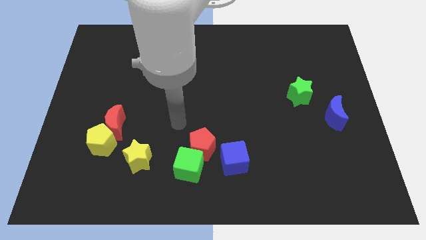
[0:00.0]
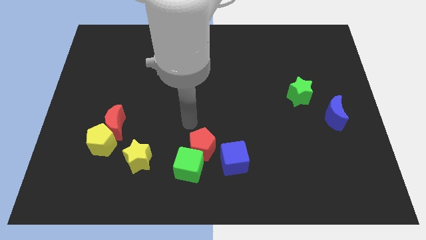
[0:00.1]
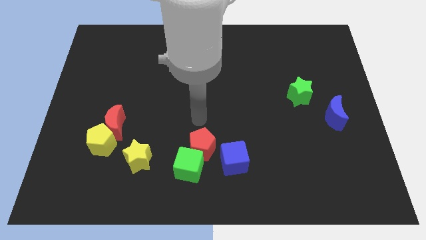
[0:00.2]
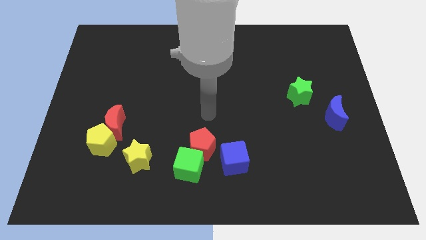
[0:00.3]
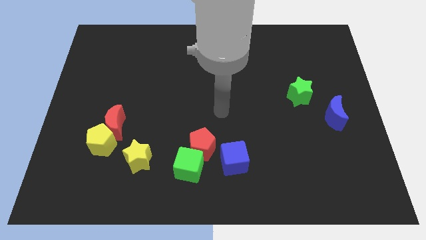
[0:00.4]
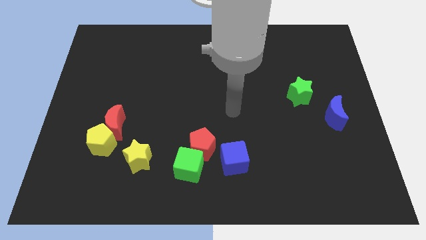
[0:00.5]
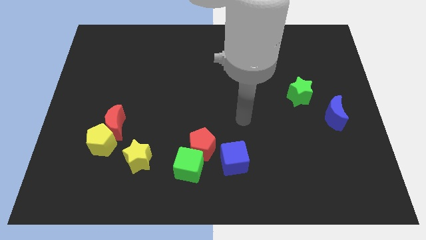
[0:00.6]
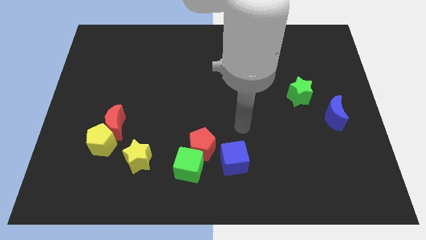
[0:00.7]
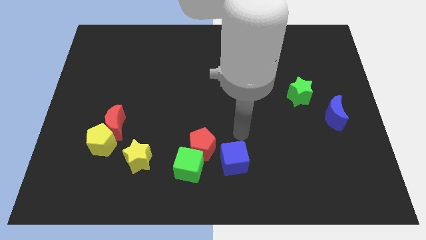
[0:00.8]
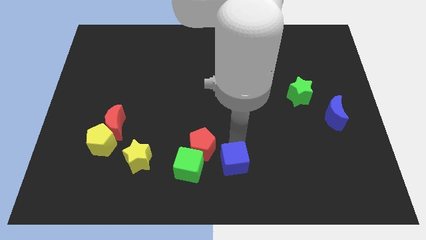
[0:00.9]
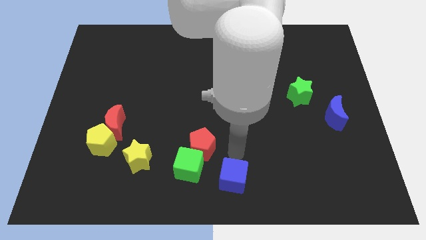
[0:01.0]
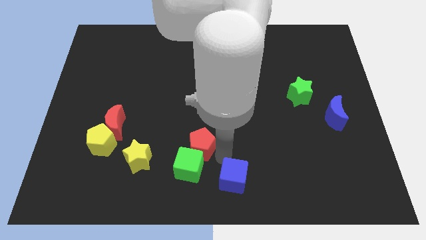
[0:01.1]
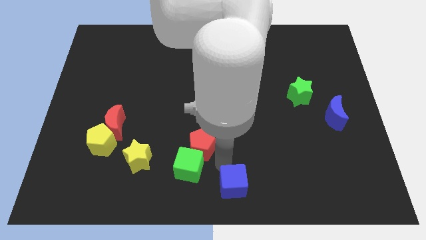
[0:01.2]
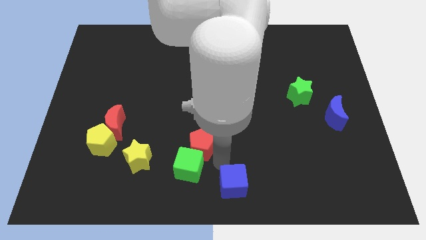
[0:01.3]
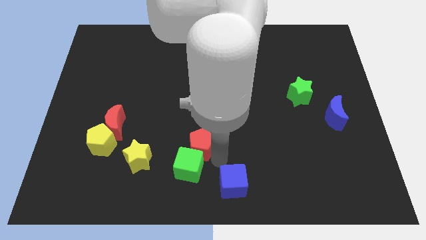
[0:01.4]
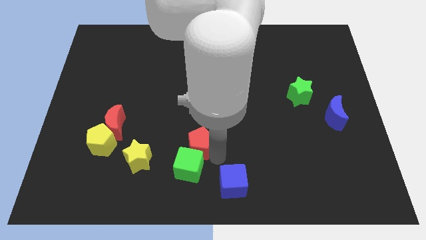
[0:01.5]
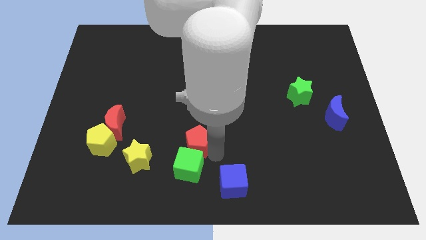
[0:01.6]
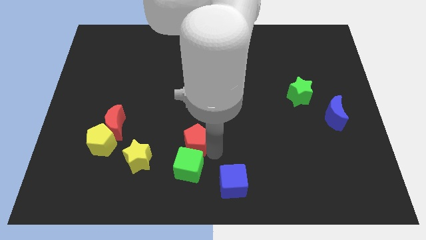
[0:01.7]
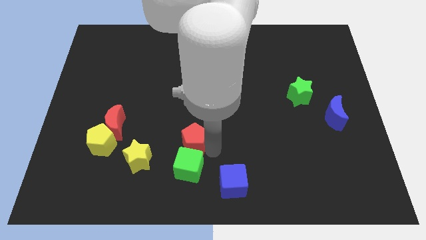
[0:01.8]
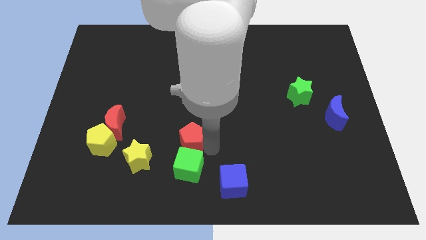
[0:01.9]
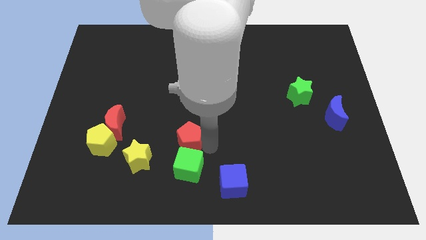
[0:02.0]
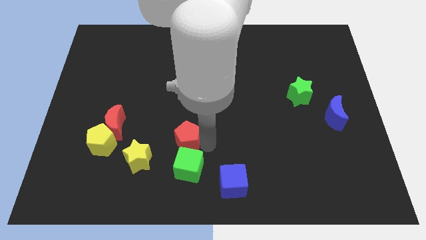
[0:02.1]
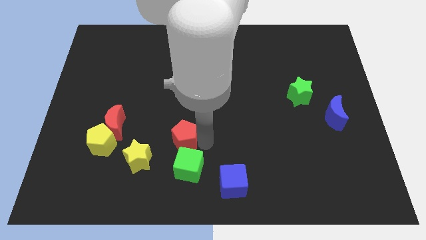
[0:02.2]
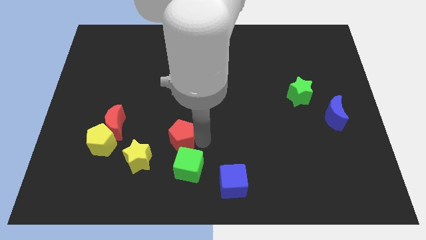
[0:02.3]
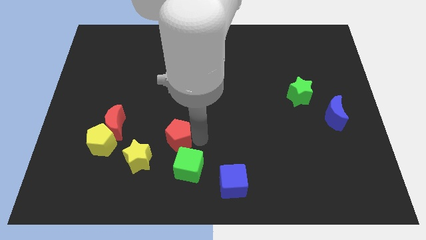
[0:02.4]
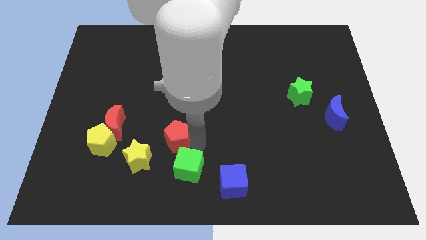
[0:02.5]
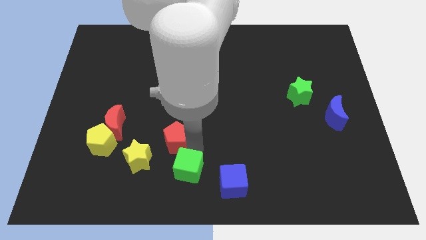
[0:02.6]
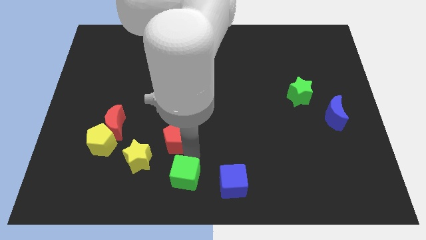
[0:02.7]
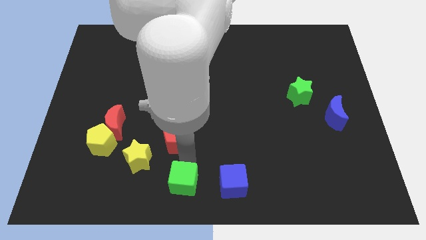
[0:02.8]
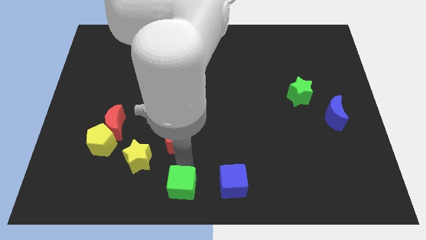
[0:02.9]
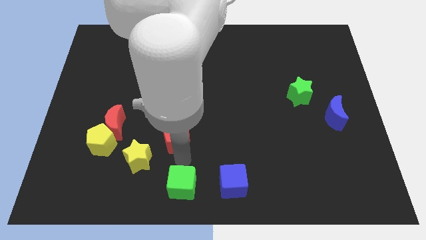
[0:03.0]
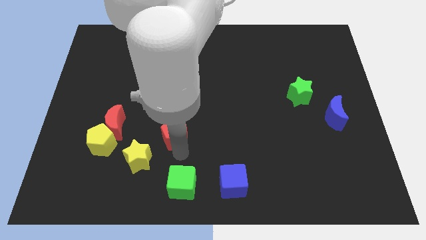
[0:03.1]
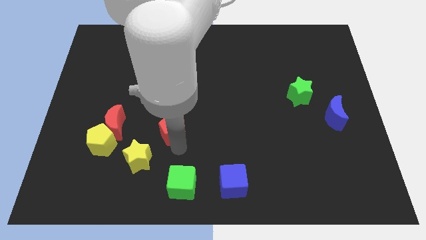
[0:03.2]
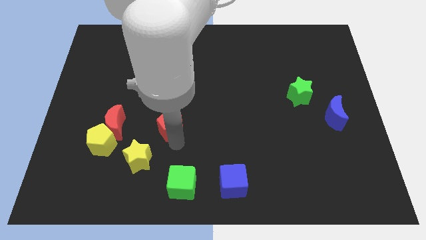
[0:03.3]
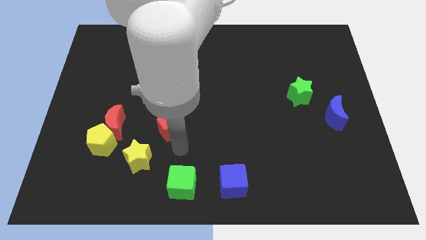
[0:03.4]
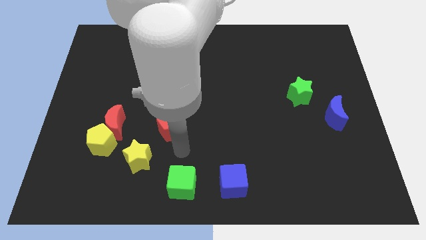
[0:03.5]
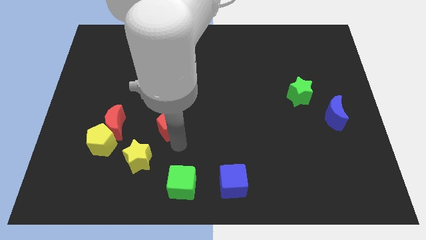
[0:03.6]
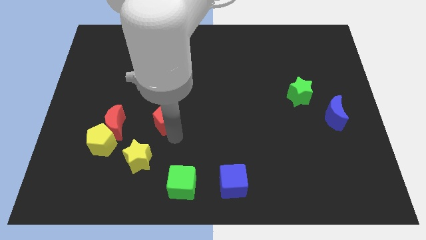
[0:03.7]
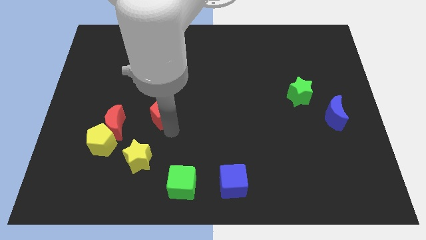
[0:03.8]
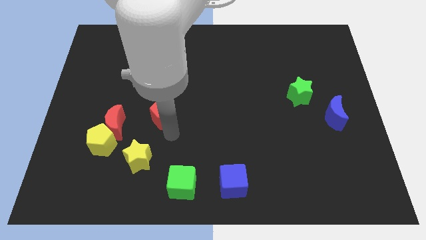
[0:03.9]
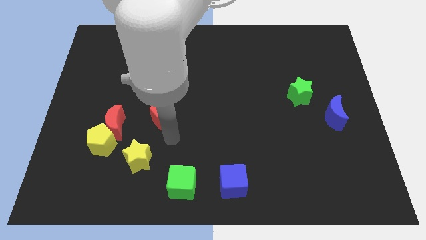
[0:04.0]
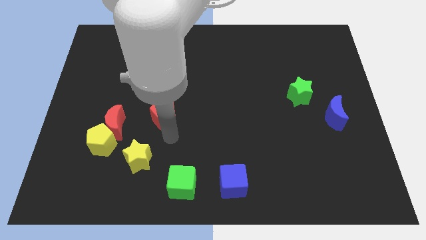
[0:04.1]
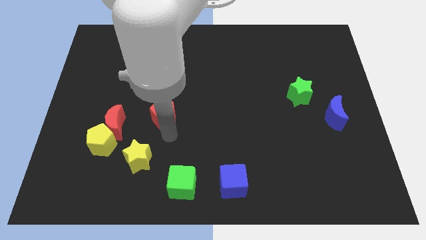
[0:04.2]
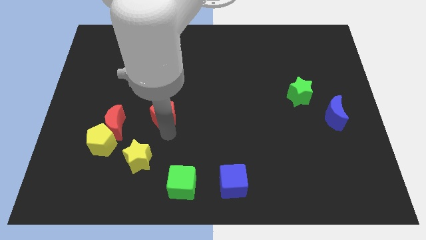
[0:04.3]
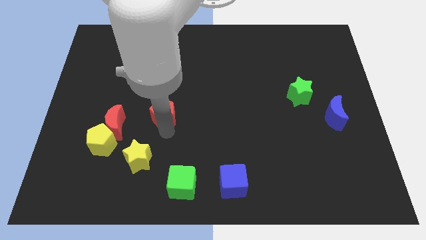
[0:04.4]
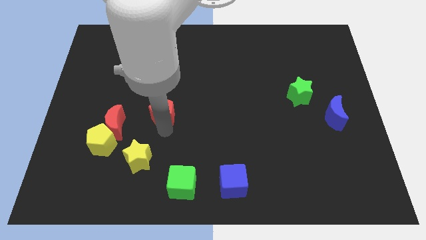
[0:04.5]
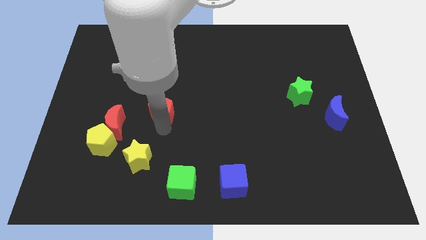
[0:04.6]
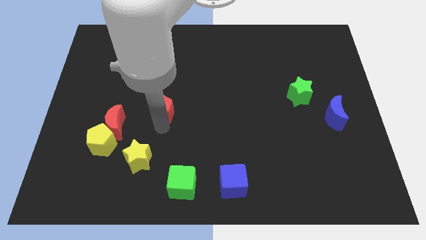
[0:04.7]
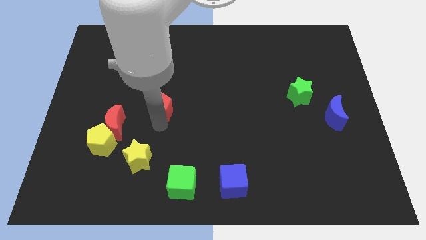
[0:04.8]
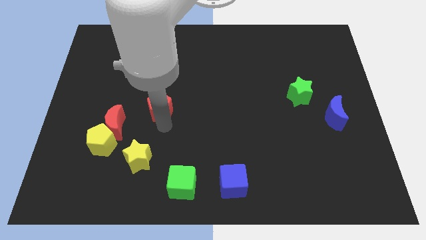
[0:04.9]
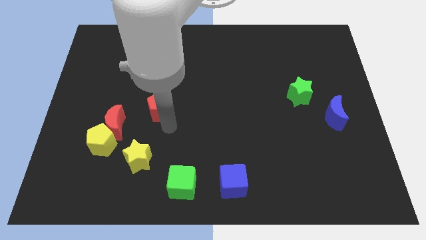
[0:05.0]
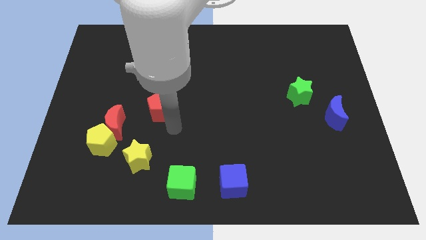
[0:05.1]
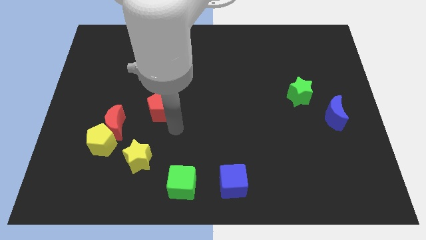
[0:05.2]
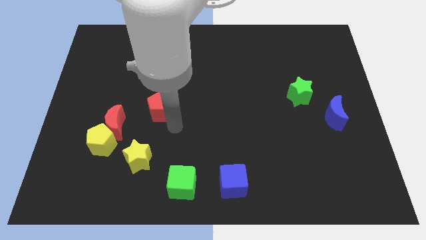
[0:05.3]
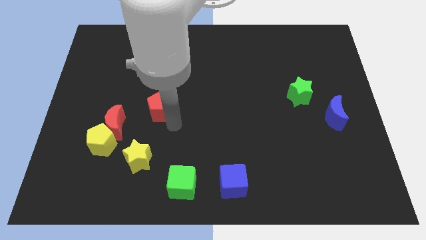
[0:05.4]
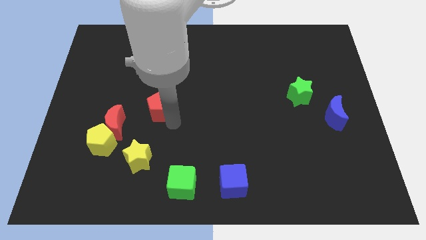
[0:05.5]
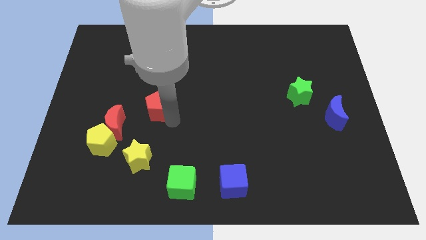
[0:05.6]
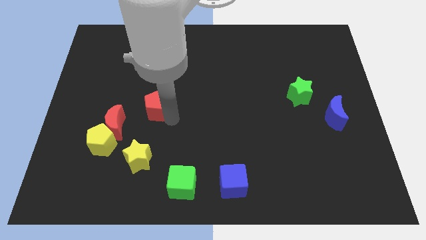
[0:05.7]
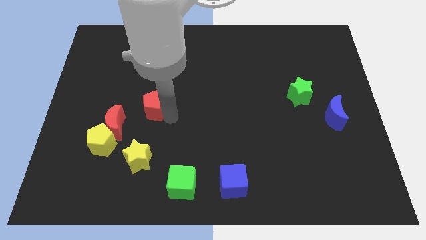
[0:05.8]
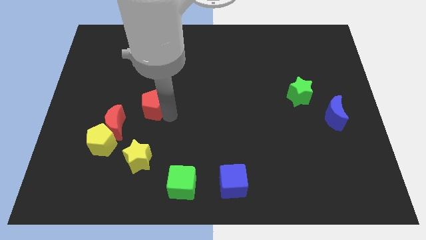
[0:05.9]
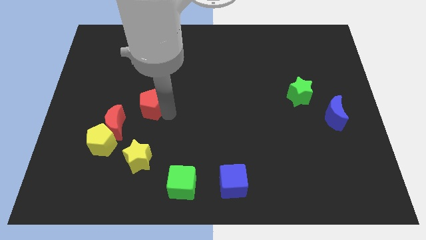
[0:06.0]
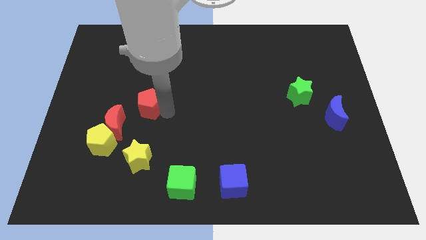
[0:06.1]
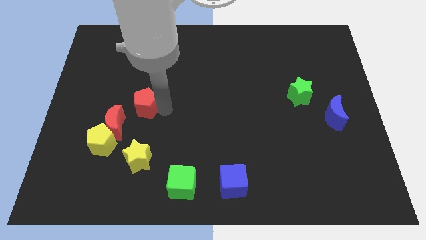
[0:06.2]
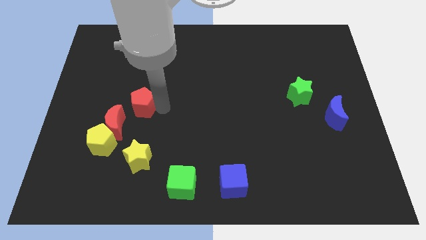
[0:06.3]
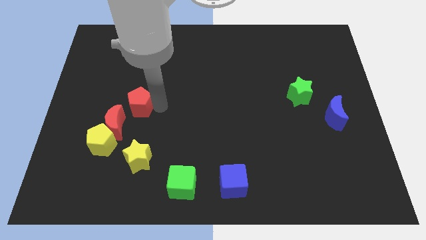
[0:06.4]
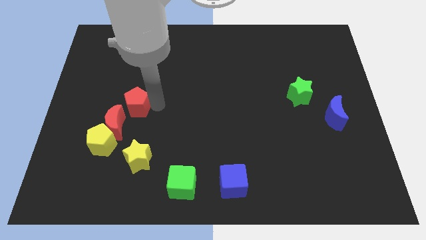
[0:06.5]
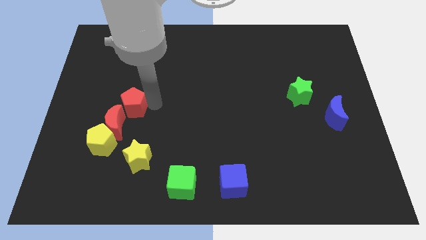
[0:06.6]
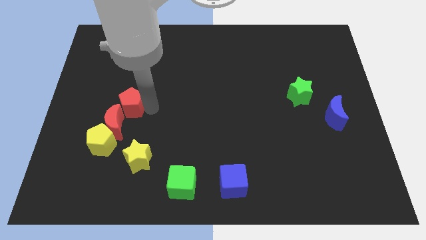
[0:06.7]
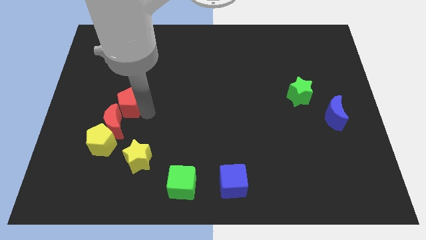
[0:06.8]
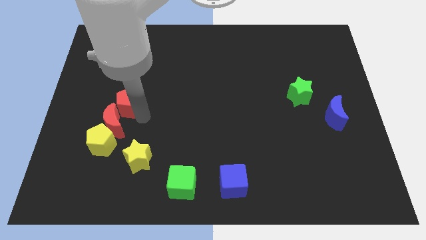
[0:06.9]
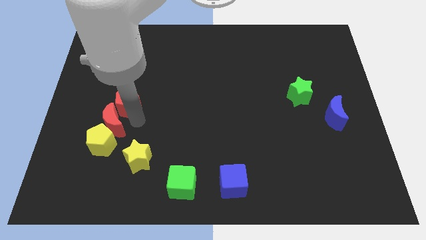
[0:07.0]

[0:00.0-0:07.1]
slide the red pentagon up and to the left

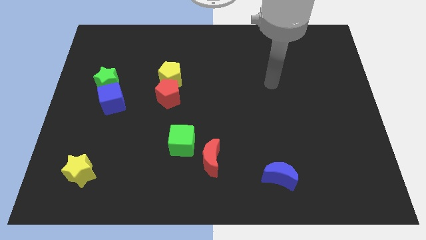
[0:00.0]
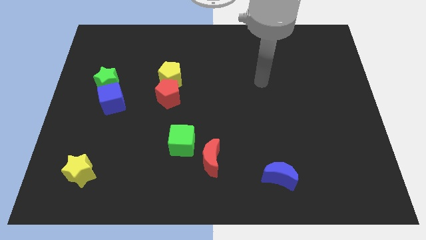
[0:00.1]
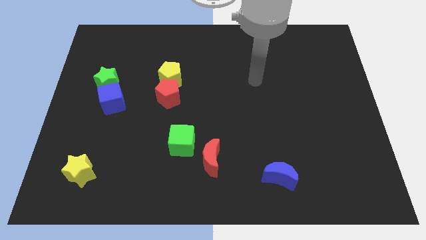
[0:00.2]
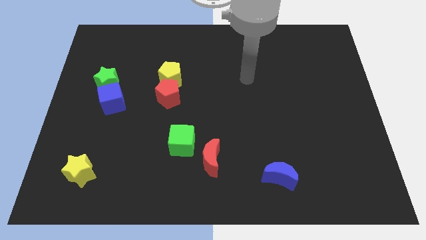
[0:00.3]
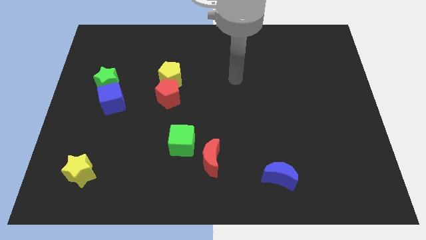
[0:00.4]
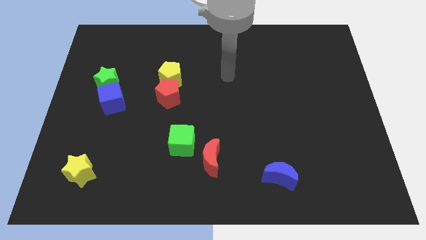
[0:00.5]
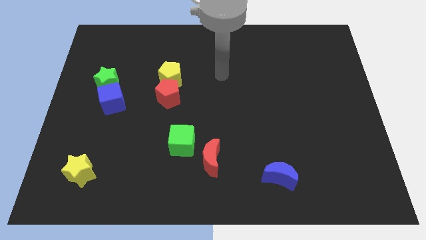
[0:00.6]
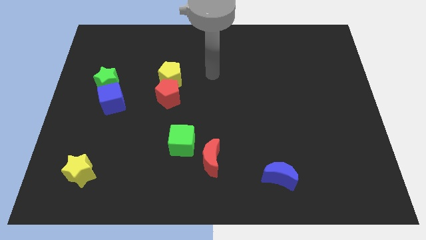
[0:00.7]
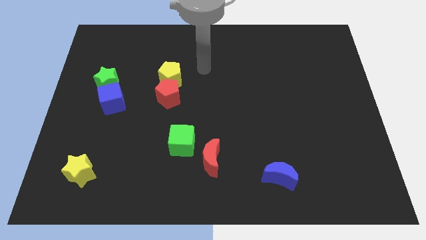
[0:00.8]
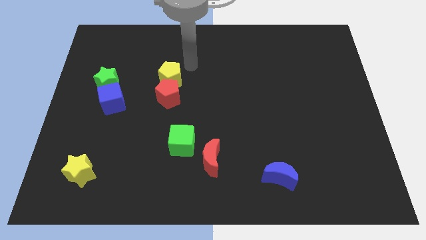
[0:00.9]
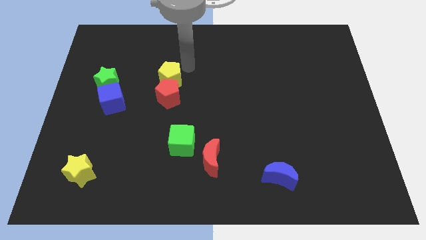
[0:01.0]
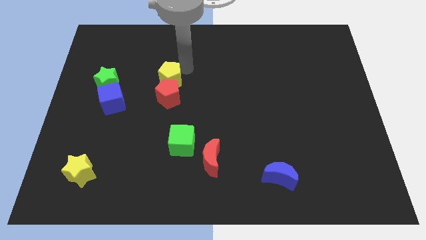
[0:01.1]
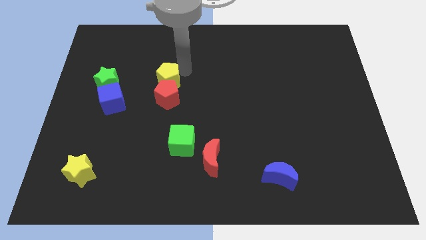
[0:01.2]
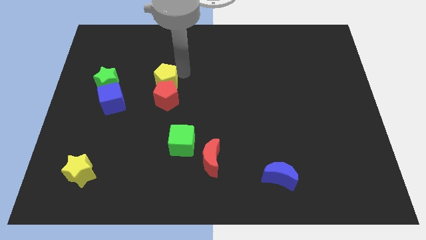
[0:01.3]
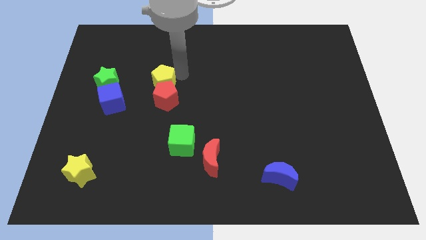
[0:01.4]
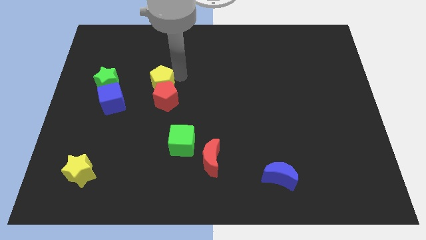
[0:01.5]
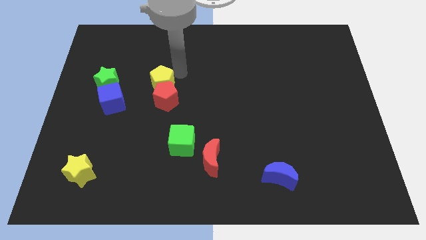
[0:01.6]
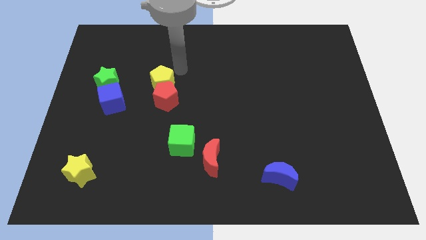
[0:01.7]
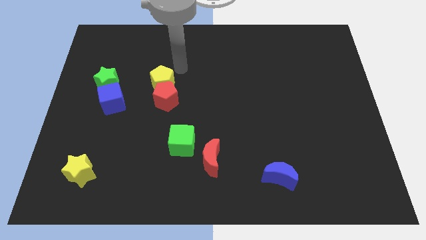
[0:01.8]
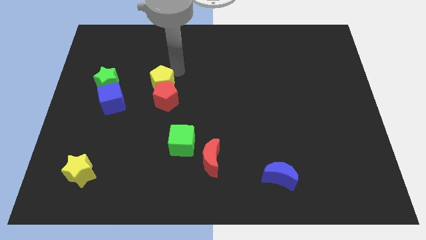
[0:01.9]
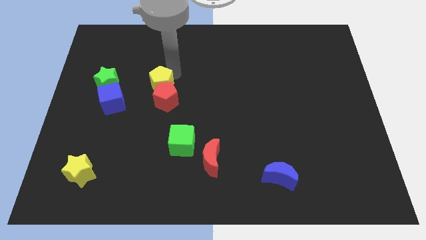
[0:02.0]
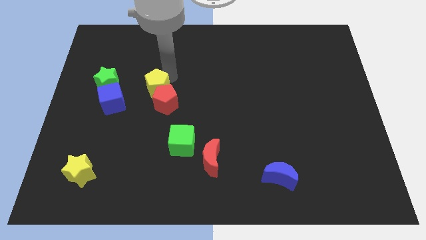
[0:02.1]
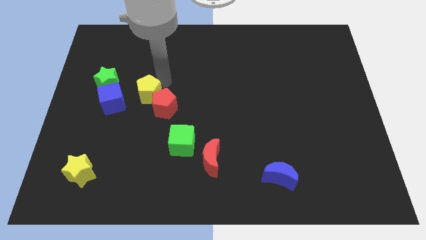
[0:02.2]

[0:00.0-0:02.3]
slightly move the yellow pentagon down and left
